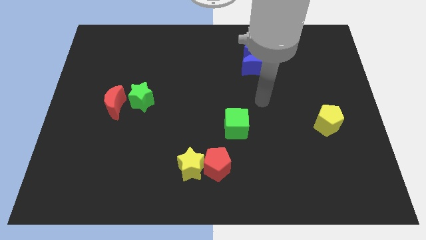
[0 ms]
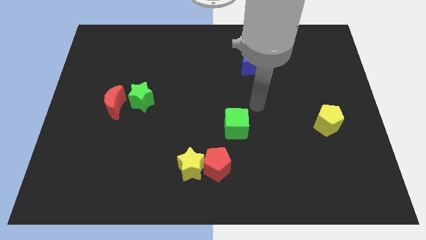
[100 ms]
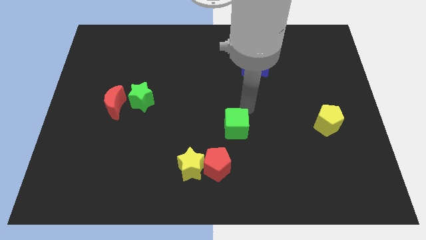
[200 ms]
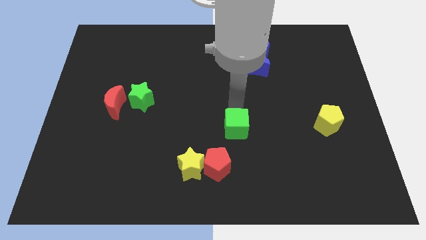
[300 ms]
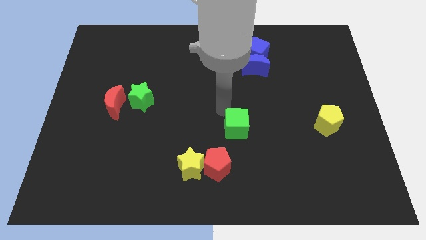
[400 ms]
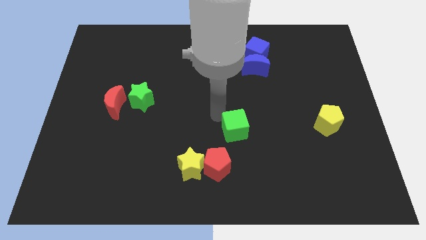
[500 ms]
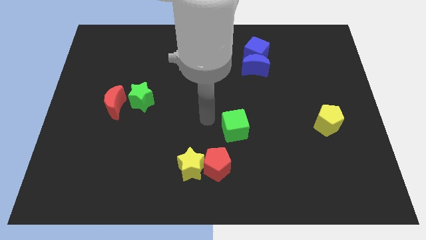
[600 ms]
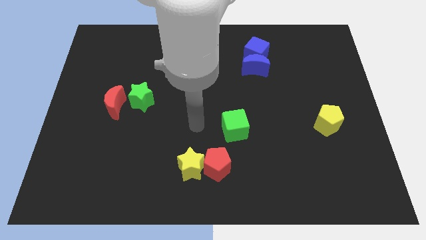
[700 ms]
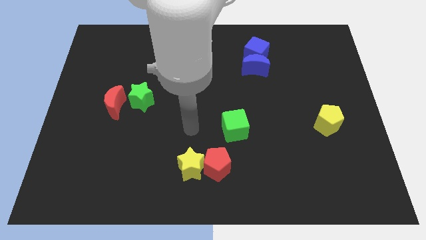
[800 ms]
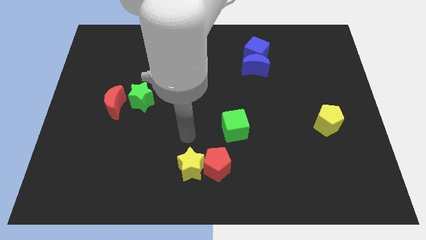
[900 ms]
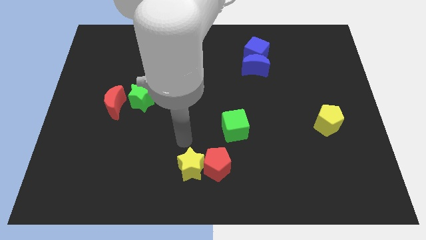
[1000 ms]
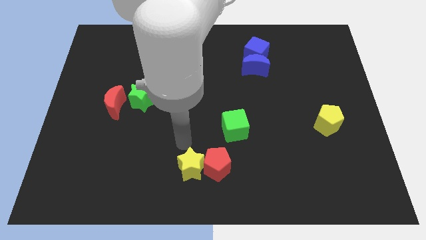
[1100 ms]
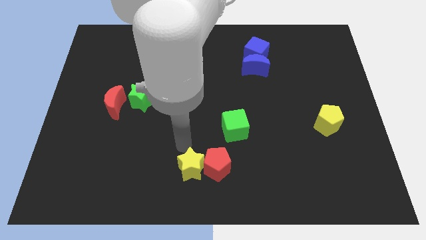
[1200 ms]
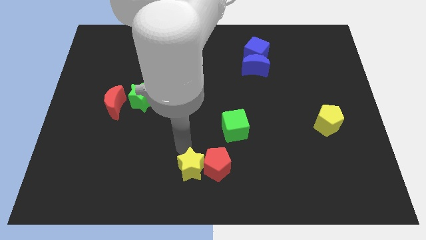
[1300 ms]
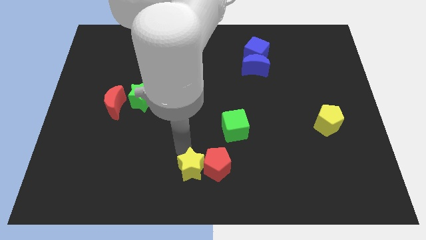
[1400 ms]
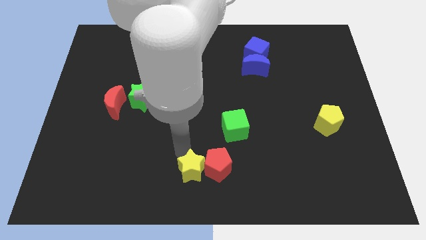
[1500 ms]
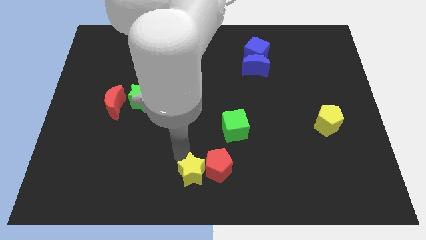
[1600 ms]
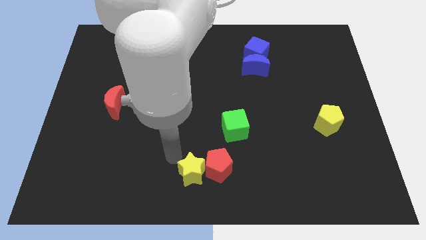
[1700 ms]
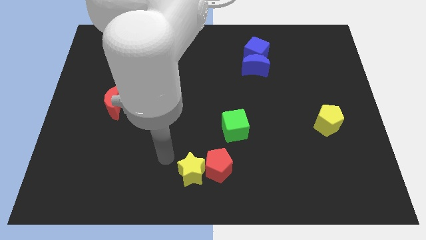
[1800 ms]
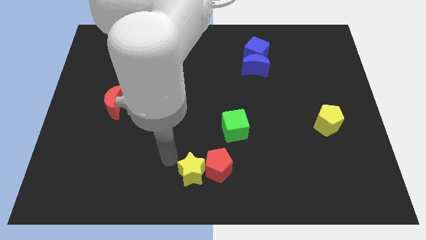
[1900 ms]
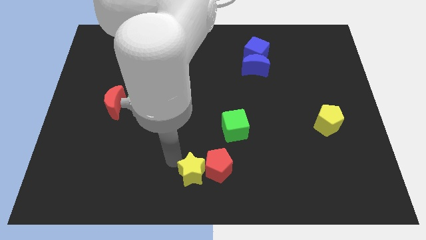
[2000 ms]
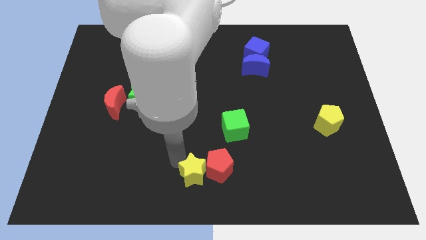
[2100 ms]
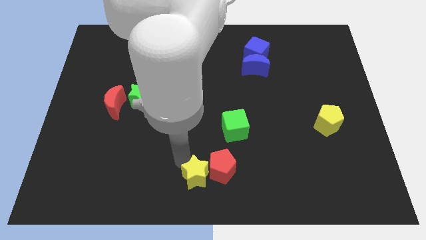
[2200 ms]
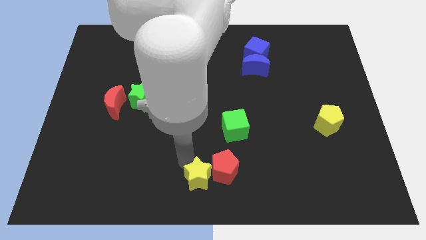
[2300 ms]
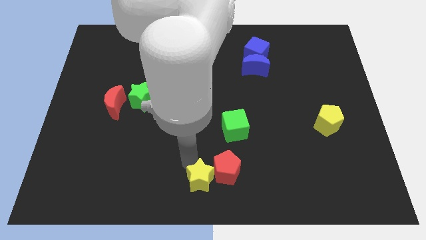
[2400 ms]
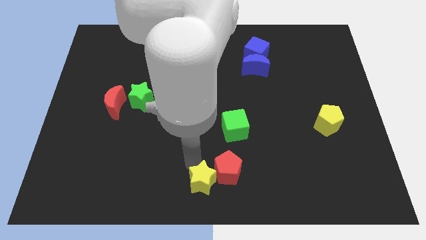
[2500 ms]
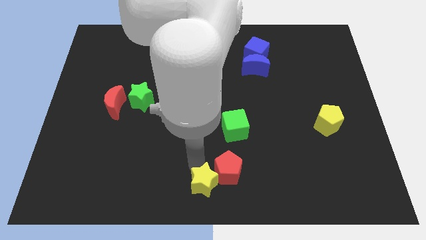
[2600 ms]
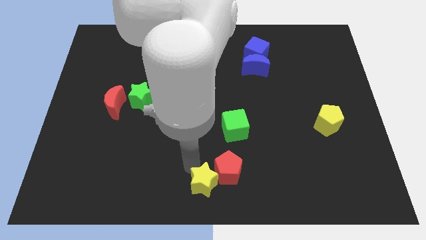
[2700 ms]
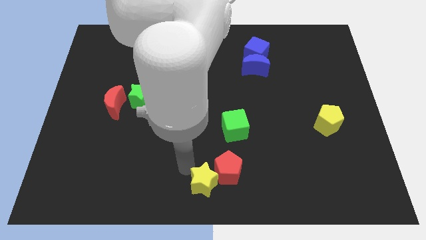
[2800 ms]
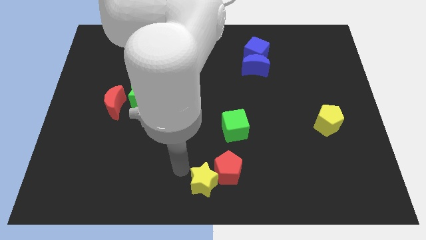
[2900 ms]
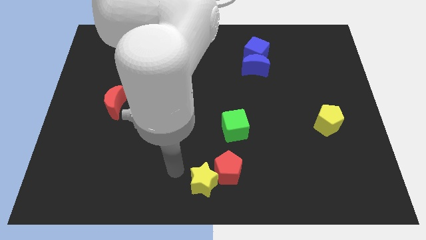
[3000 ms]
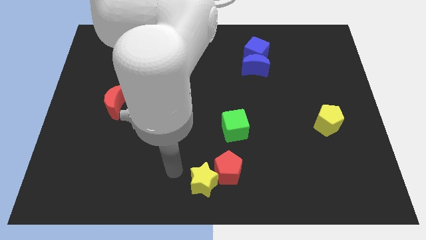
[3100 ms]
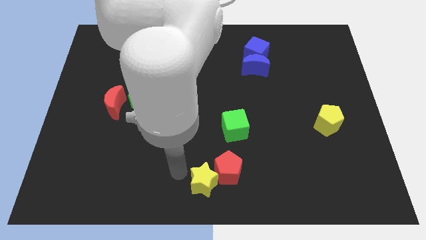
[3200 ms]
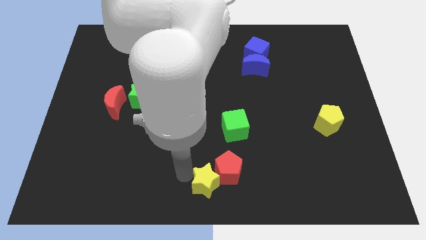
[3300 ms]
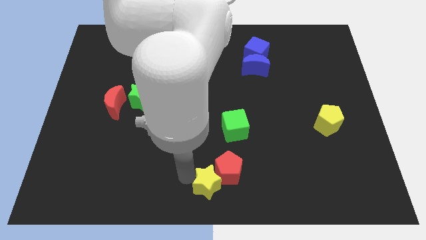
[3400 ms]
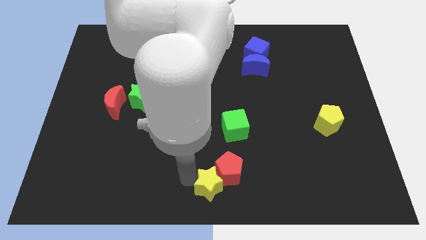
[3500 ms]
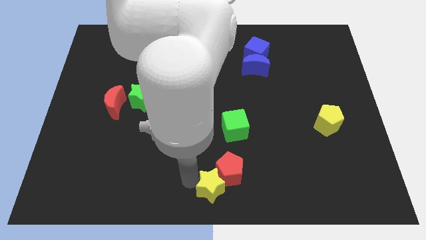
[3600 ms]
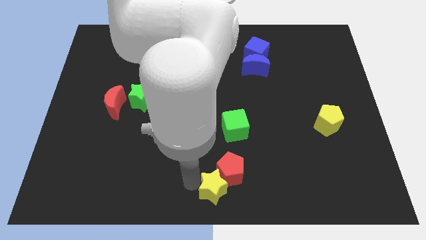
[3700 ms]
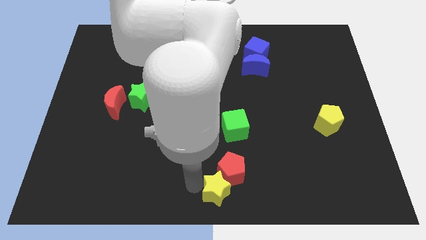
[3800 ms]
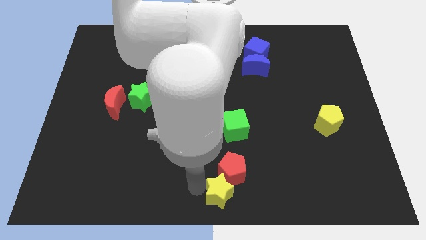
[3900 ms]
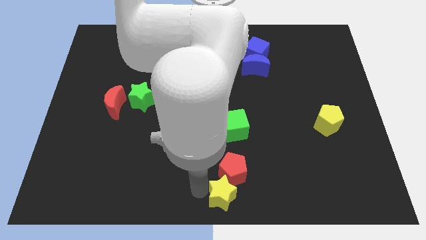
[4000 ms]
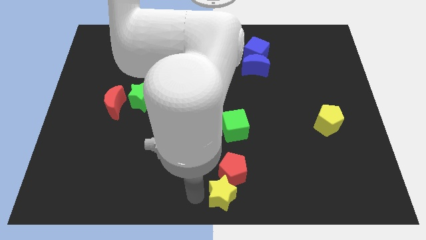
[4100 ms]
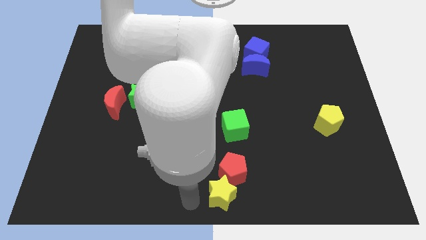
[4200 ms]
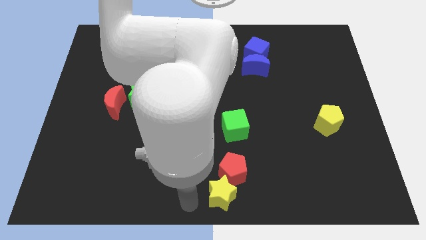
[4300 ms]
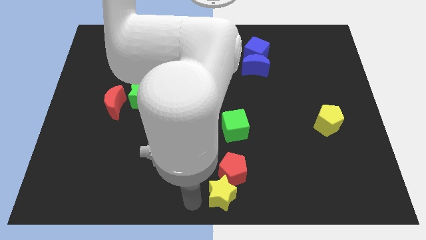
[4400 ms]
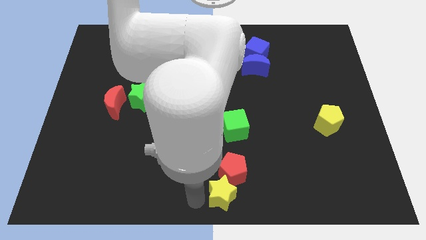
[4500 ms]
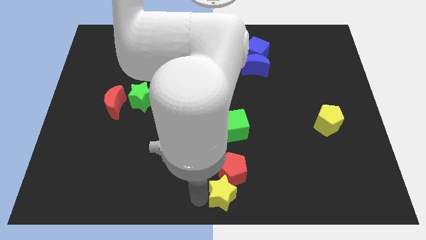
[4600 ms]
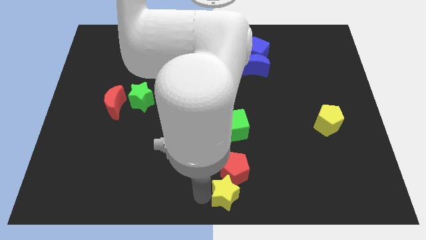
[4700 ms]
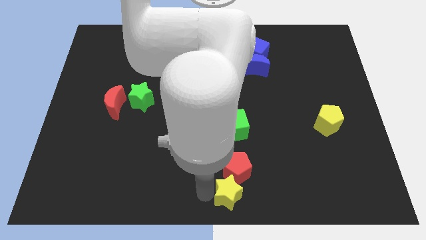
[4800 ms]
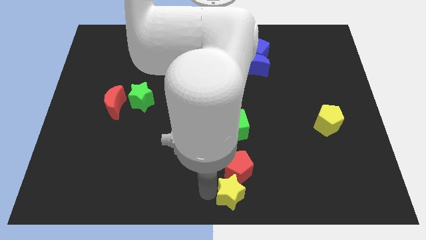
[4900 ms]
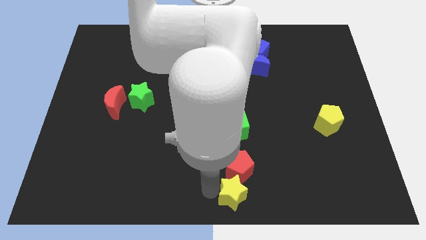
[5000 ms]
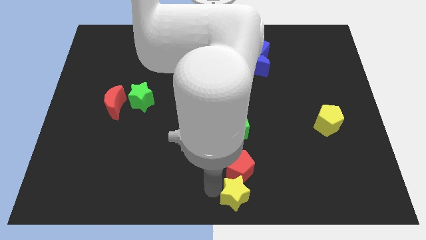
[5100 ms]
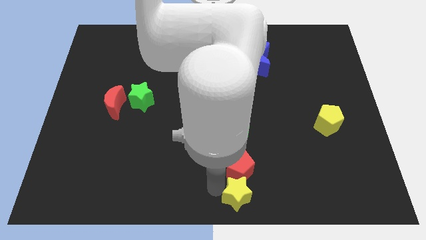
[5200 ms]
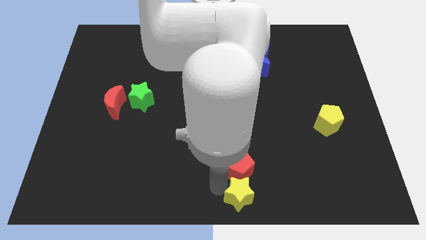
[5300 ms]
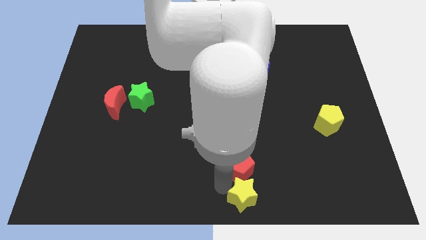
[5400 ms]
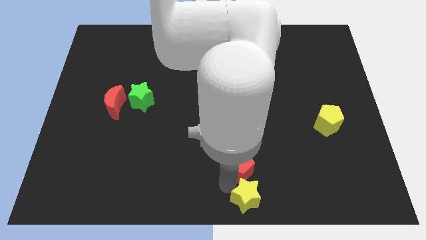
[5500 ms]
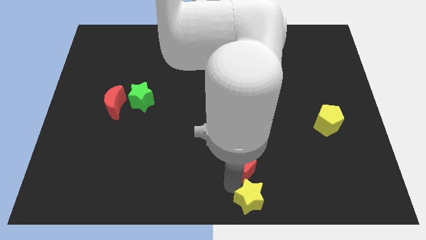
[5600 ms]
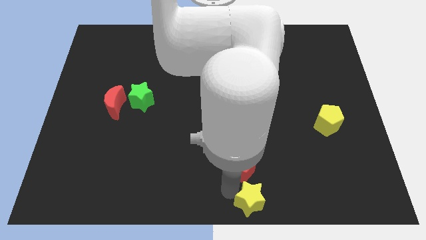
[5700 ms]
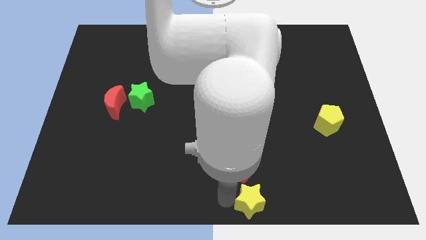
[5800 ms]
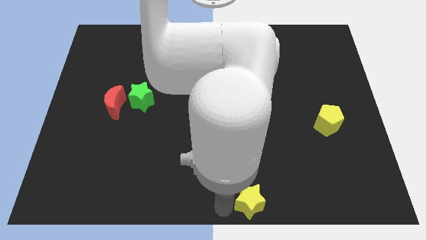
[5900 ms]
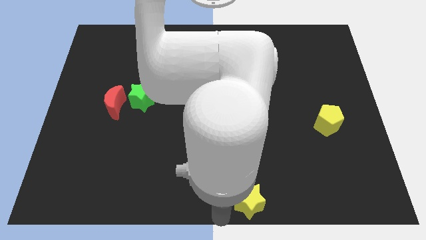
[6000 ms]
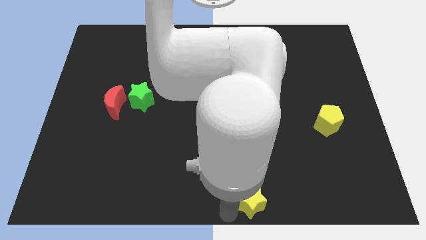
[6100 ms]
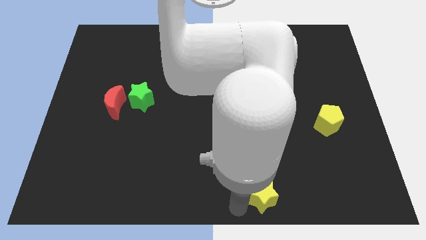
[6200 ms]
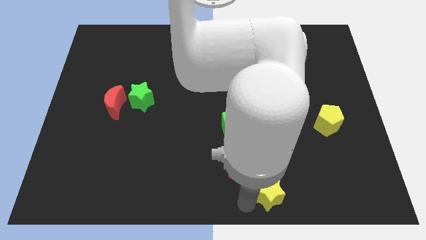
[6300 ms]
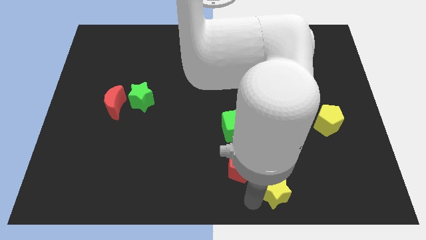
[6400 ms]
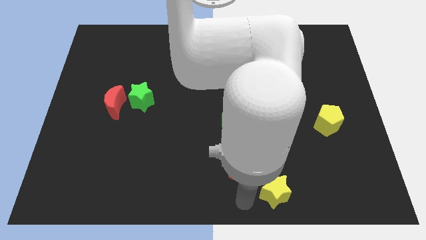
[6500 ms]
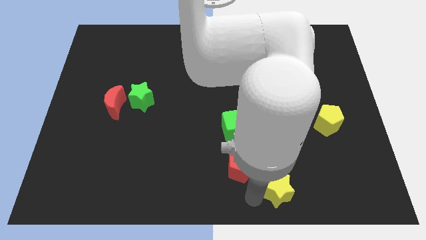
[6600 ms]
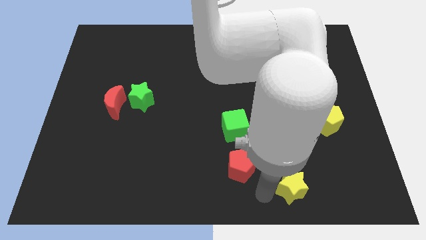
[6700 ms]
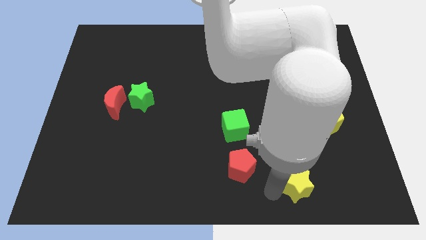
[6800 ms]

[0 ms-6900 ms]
slide the yellow star to the right

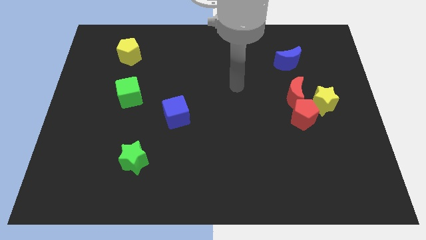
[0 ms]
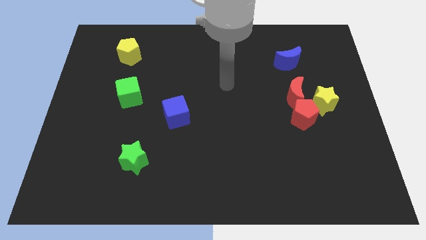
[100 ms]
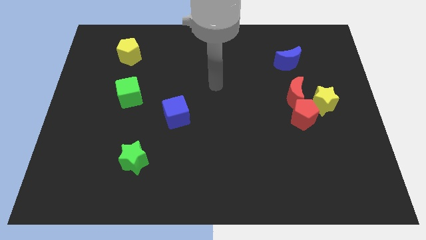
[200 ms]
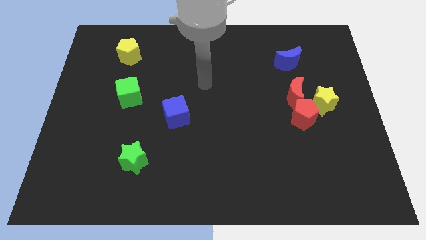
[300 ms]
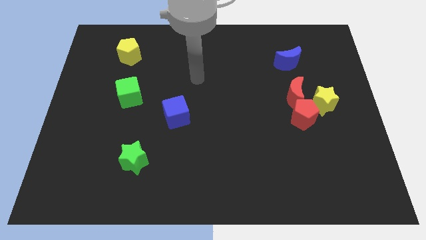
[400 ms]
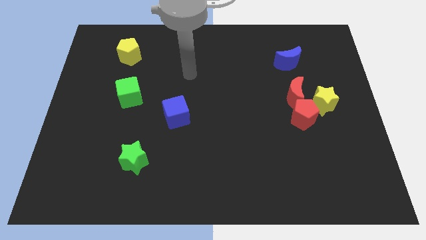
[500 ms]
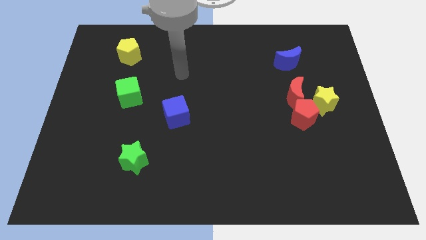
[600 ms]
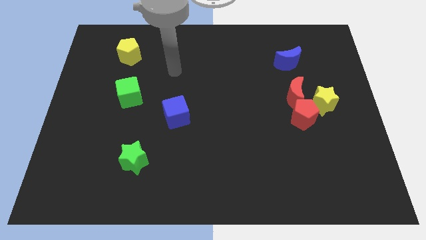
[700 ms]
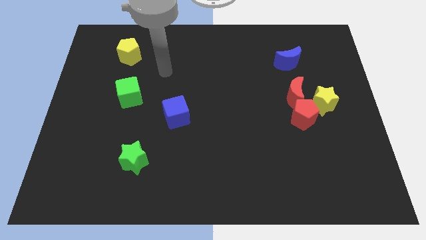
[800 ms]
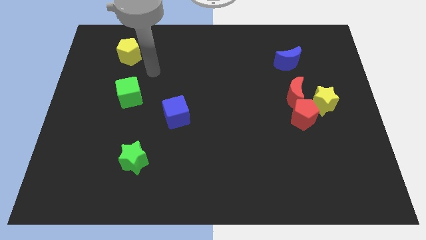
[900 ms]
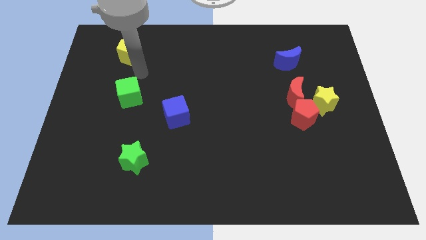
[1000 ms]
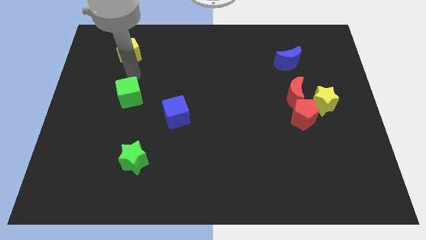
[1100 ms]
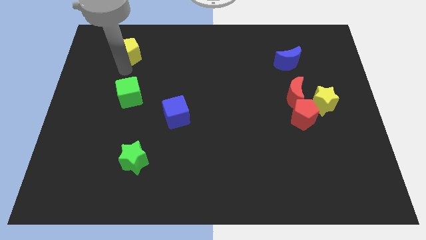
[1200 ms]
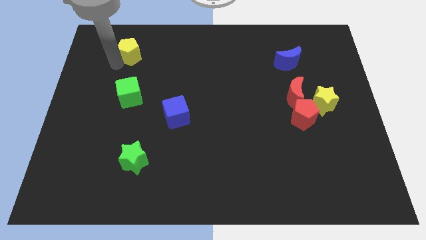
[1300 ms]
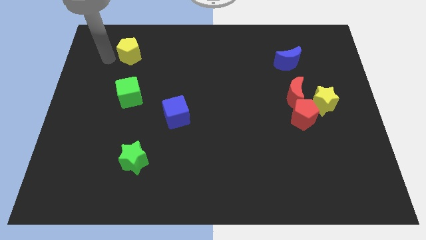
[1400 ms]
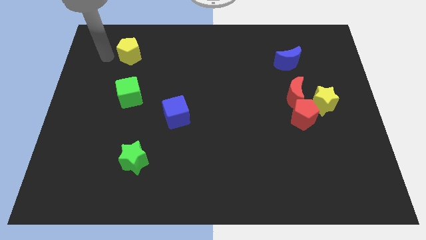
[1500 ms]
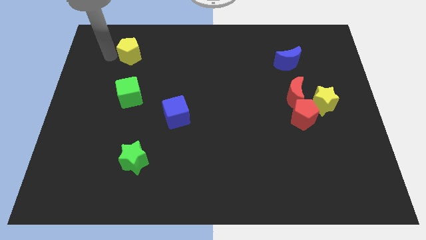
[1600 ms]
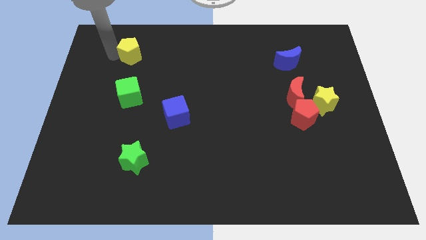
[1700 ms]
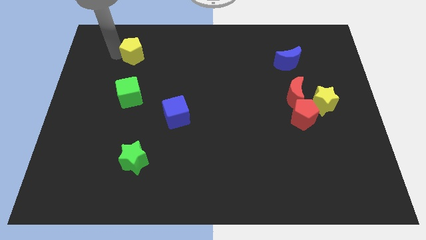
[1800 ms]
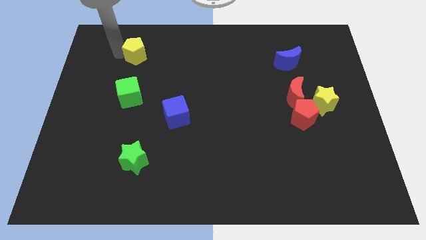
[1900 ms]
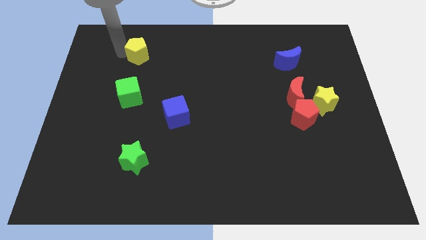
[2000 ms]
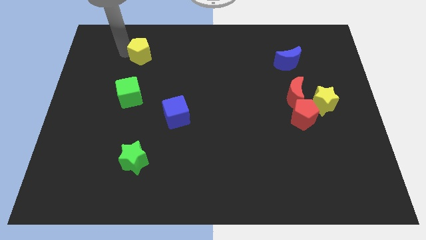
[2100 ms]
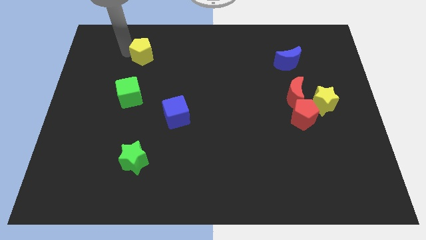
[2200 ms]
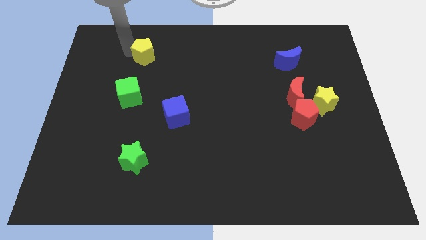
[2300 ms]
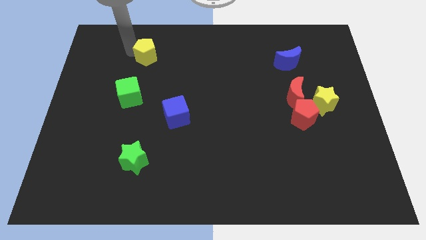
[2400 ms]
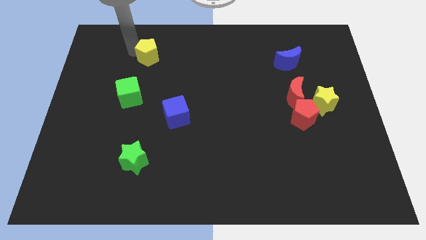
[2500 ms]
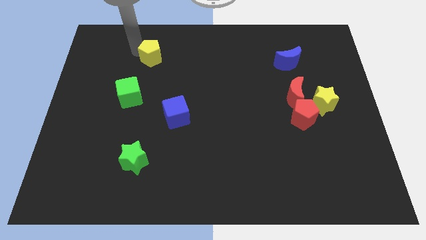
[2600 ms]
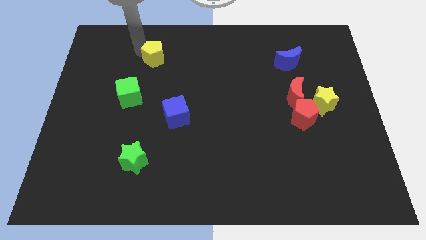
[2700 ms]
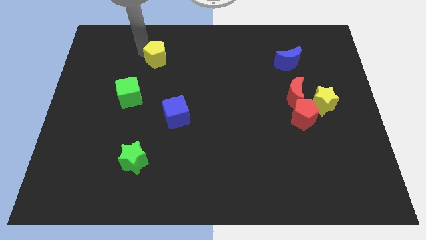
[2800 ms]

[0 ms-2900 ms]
slide the yellow pentagon right a little bit
